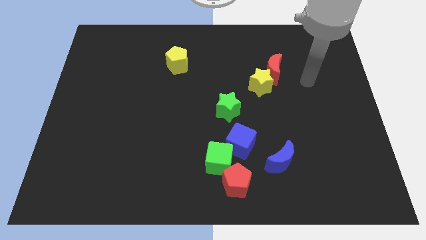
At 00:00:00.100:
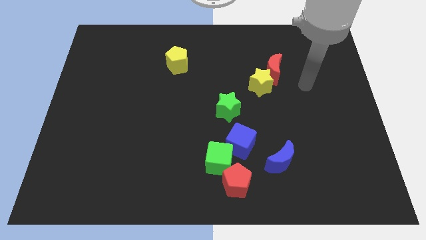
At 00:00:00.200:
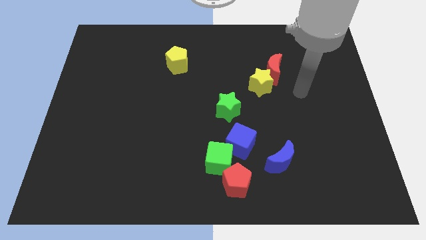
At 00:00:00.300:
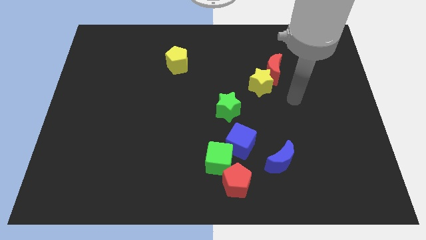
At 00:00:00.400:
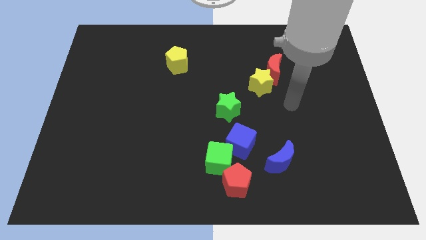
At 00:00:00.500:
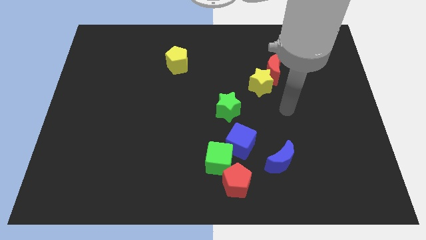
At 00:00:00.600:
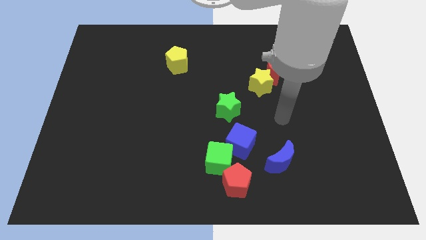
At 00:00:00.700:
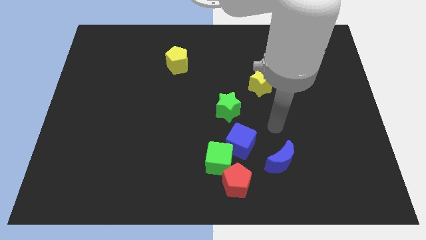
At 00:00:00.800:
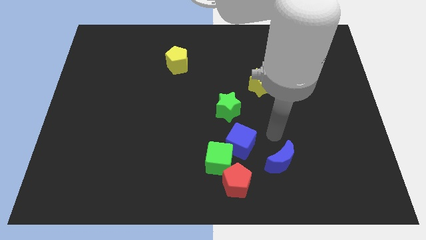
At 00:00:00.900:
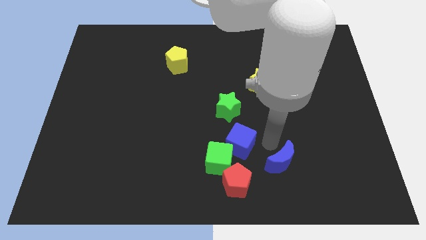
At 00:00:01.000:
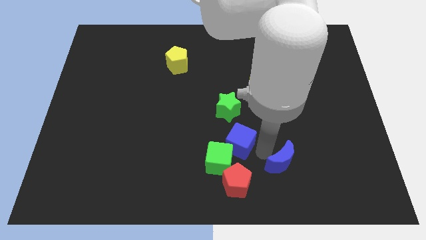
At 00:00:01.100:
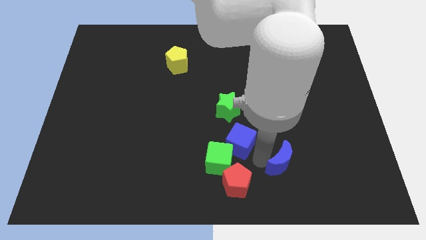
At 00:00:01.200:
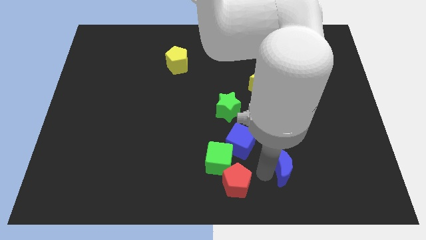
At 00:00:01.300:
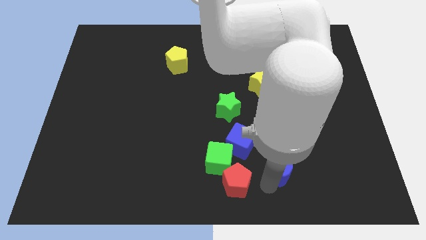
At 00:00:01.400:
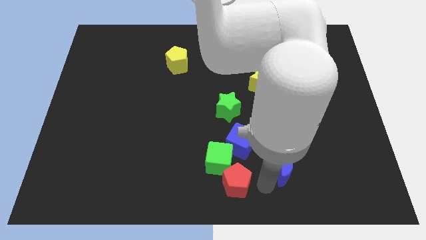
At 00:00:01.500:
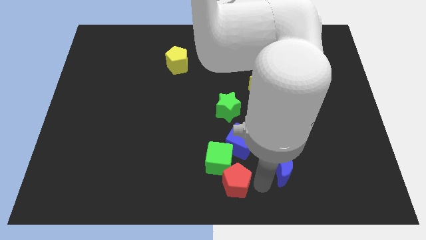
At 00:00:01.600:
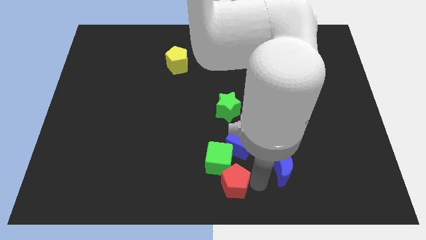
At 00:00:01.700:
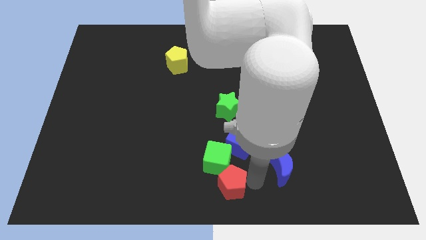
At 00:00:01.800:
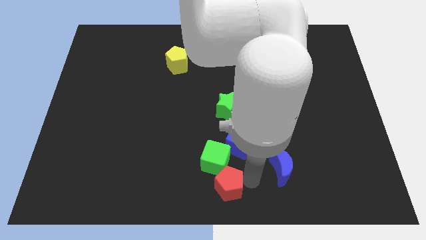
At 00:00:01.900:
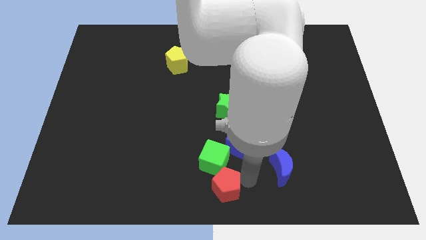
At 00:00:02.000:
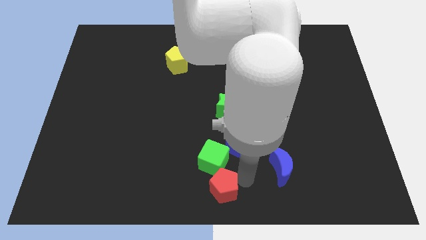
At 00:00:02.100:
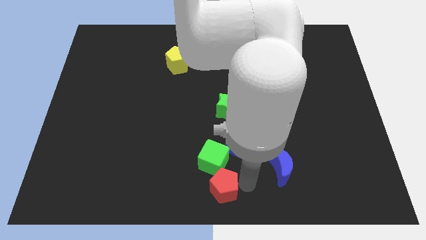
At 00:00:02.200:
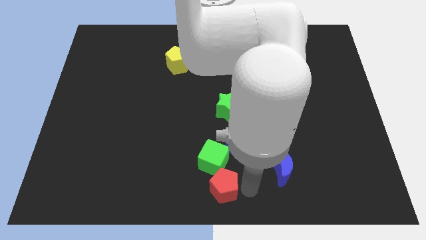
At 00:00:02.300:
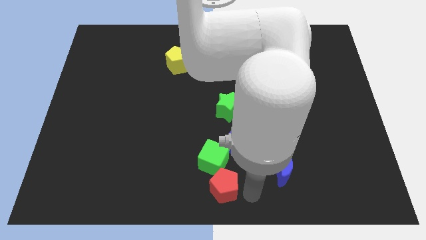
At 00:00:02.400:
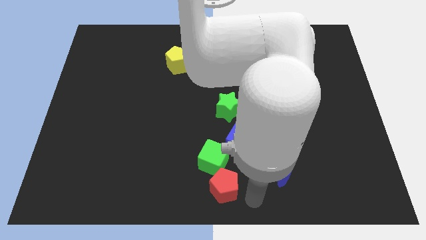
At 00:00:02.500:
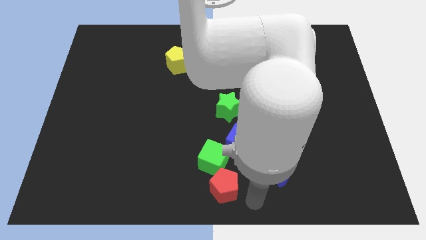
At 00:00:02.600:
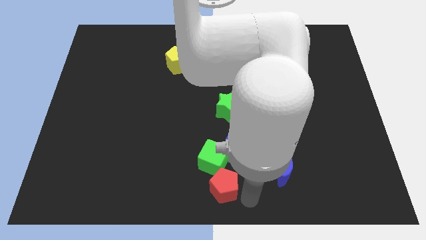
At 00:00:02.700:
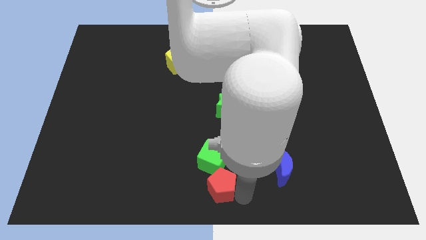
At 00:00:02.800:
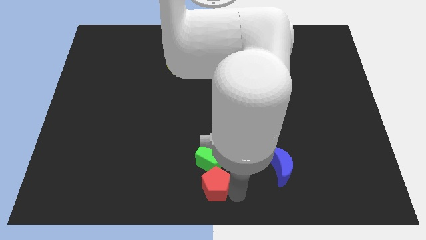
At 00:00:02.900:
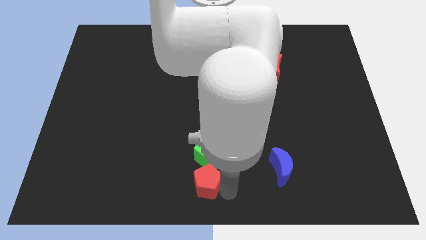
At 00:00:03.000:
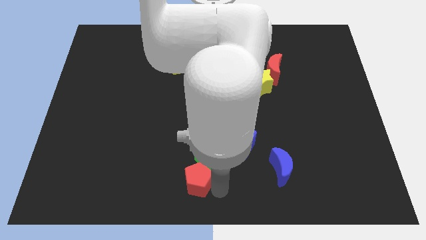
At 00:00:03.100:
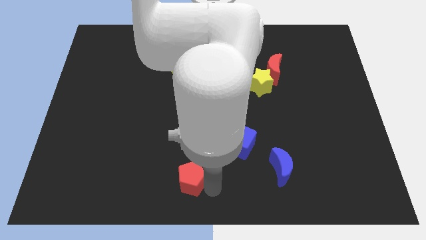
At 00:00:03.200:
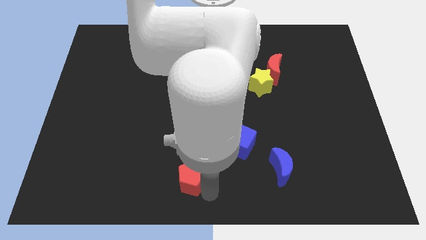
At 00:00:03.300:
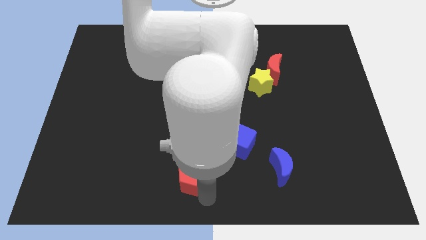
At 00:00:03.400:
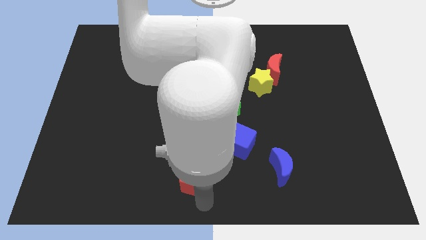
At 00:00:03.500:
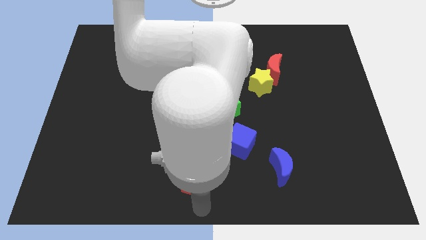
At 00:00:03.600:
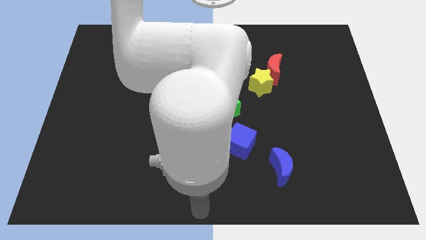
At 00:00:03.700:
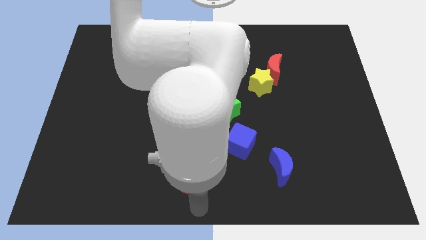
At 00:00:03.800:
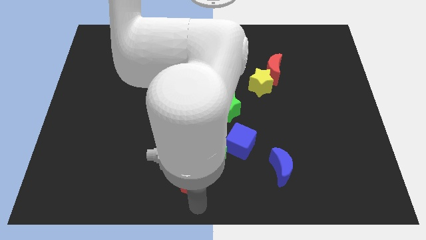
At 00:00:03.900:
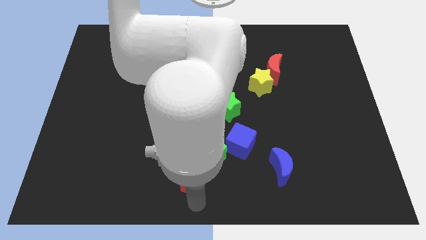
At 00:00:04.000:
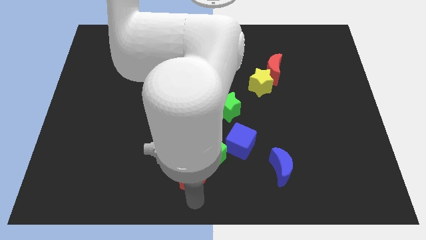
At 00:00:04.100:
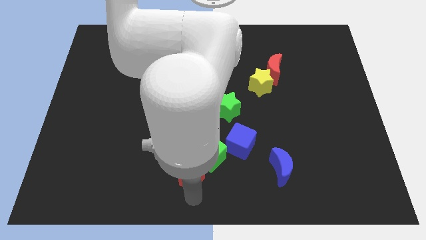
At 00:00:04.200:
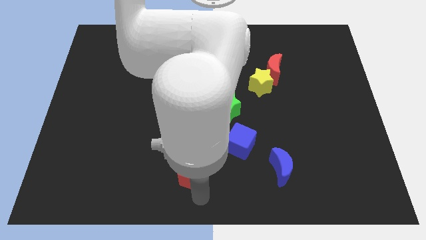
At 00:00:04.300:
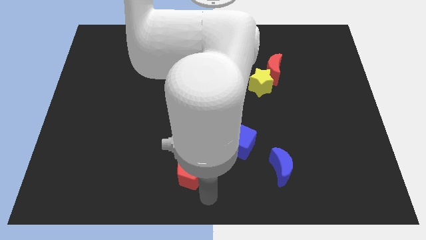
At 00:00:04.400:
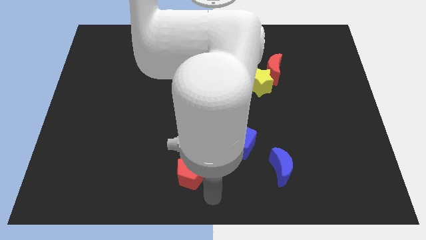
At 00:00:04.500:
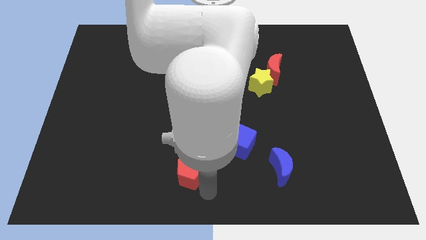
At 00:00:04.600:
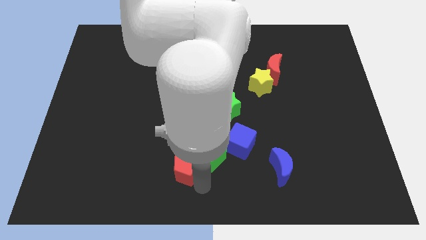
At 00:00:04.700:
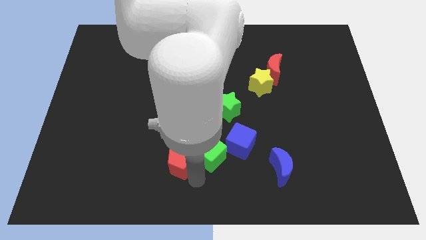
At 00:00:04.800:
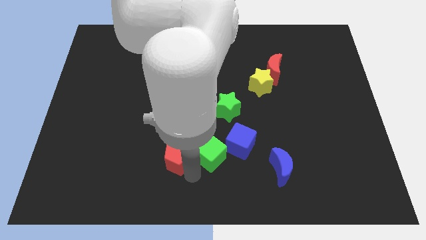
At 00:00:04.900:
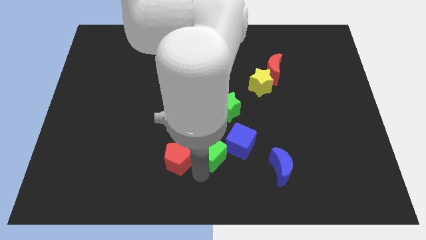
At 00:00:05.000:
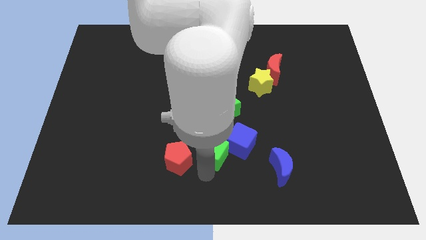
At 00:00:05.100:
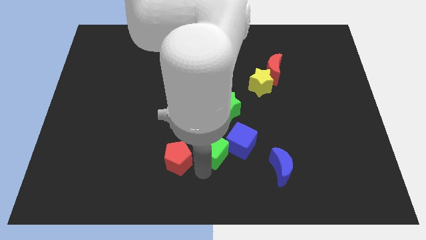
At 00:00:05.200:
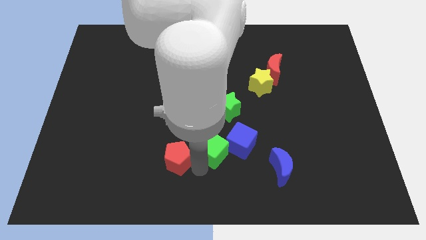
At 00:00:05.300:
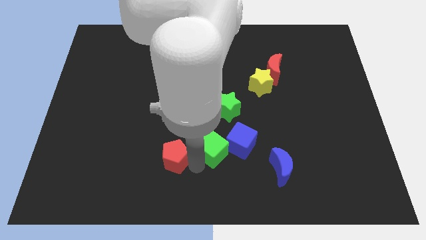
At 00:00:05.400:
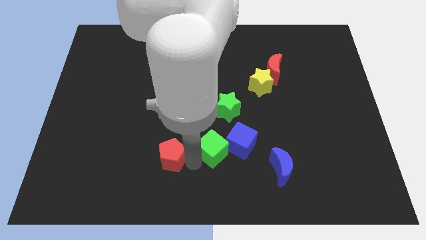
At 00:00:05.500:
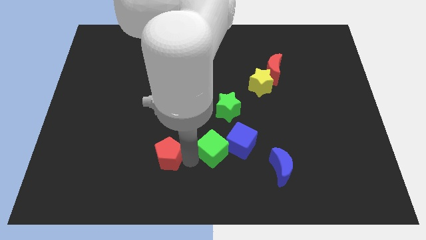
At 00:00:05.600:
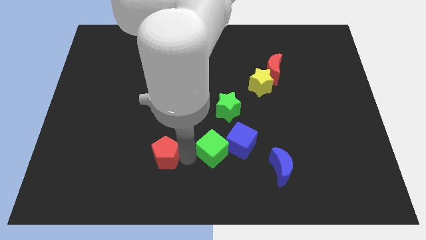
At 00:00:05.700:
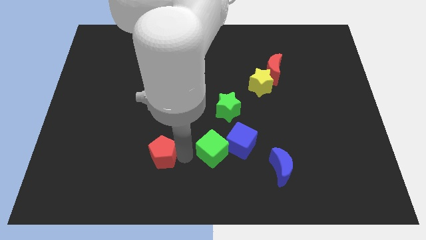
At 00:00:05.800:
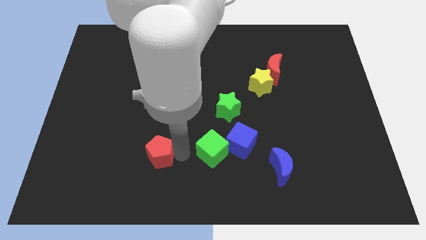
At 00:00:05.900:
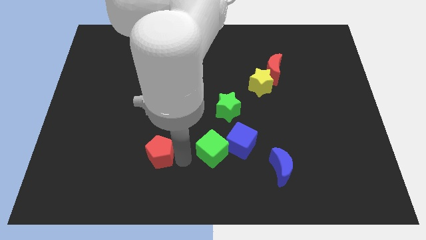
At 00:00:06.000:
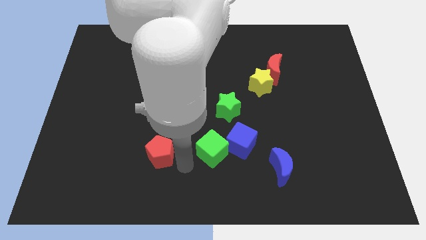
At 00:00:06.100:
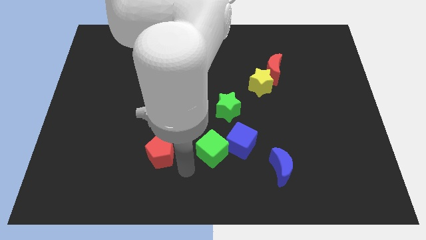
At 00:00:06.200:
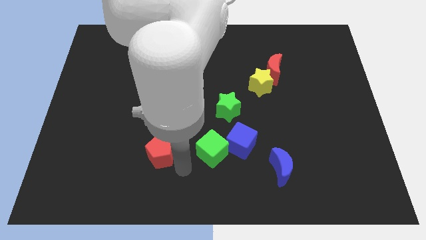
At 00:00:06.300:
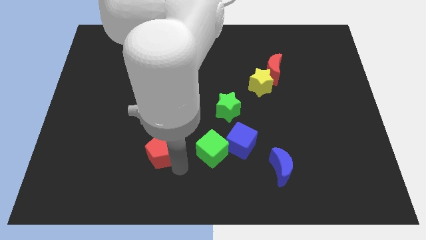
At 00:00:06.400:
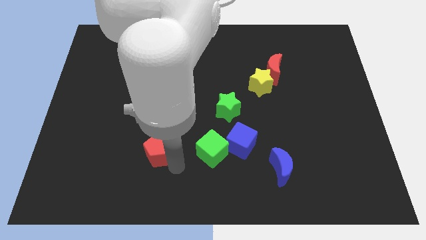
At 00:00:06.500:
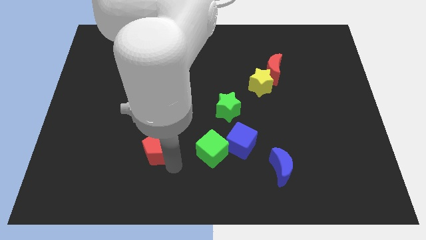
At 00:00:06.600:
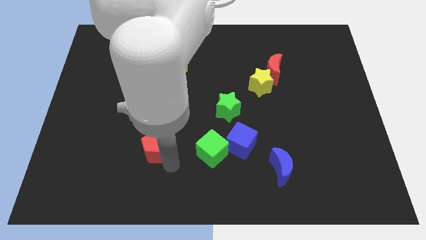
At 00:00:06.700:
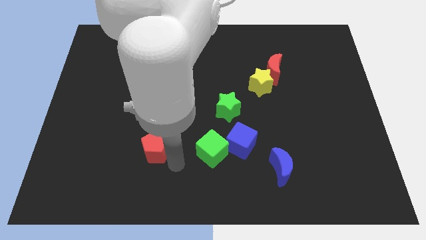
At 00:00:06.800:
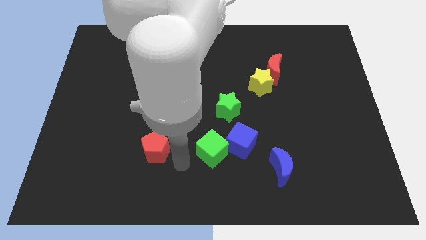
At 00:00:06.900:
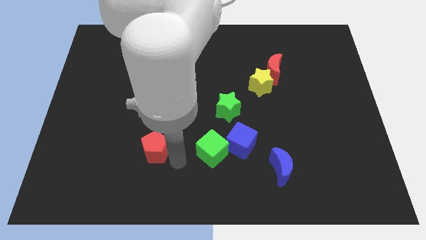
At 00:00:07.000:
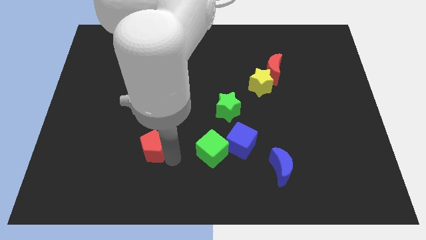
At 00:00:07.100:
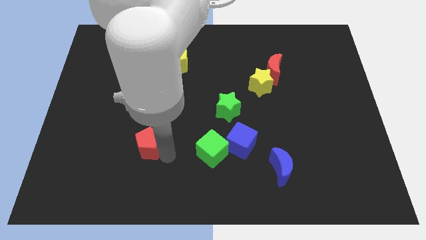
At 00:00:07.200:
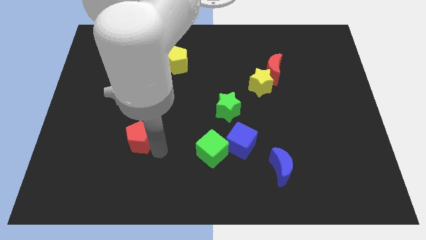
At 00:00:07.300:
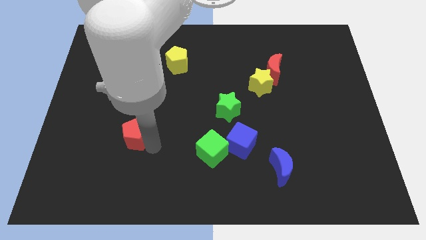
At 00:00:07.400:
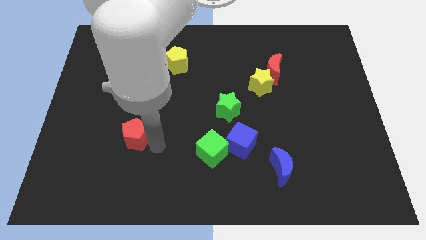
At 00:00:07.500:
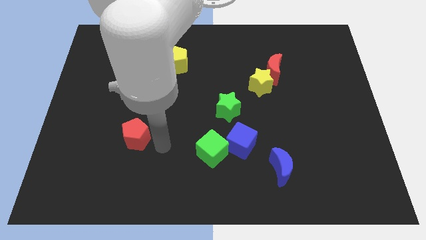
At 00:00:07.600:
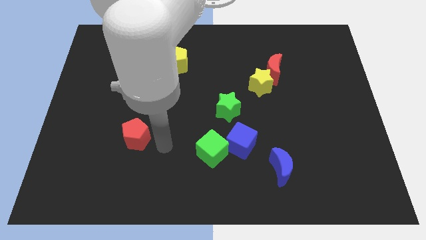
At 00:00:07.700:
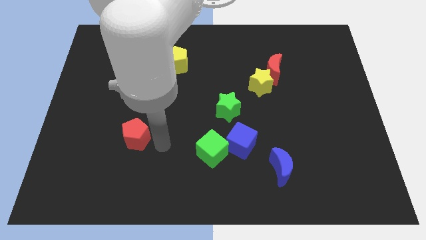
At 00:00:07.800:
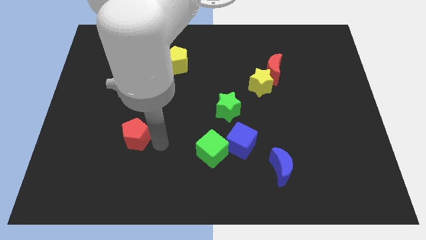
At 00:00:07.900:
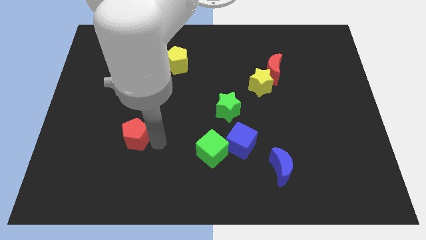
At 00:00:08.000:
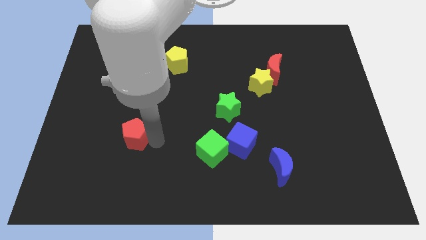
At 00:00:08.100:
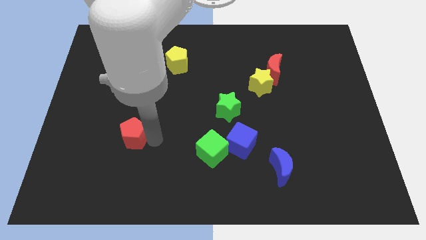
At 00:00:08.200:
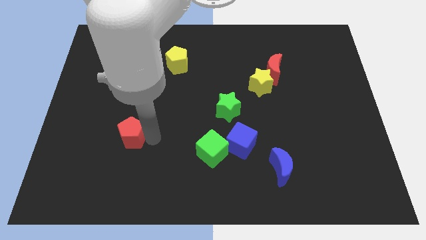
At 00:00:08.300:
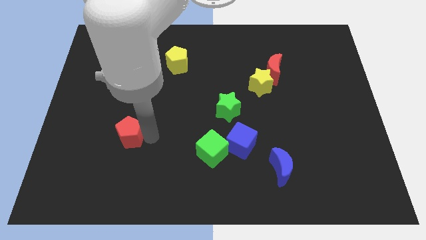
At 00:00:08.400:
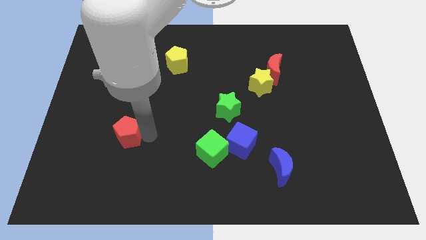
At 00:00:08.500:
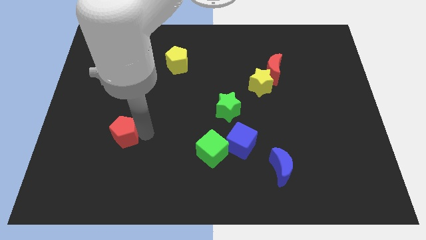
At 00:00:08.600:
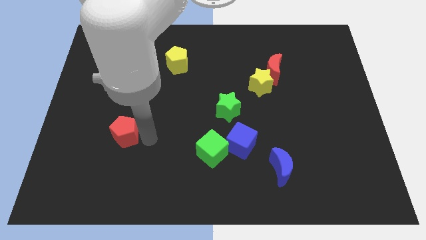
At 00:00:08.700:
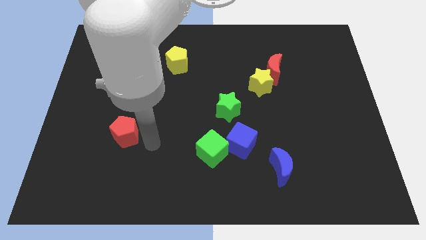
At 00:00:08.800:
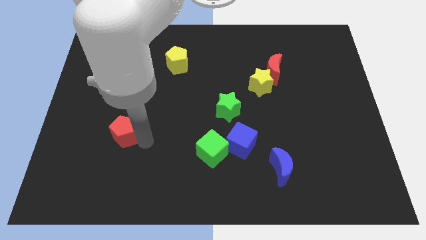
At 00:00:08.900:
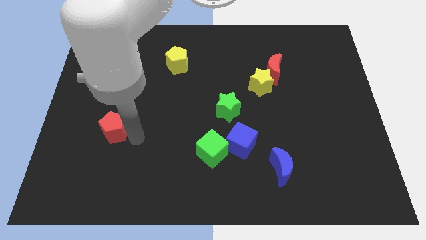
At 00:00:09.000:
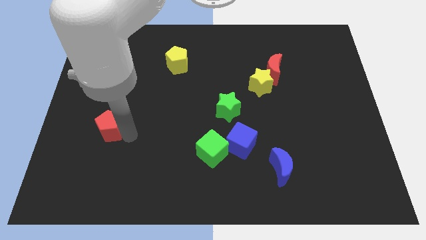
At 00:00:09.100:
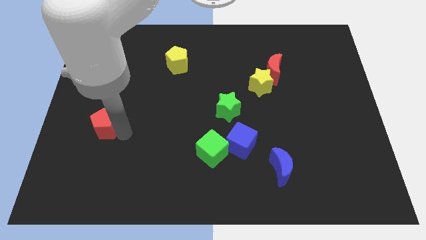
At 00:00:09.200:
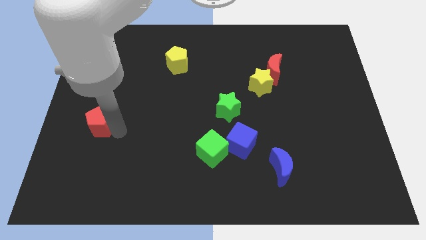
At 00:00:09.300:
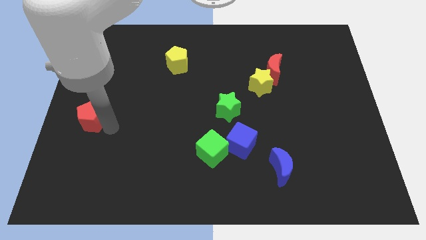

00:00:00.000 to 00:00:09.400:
move the red pentagon to the left side of the board
